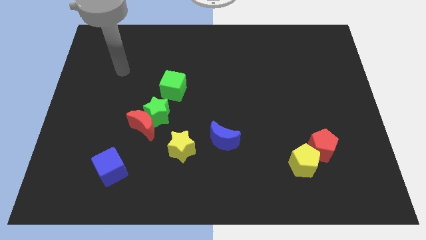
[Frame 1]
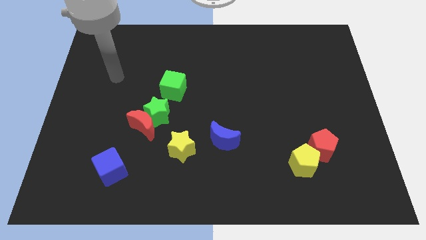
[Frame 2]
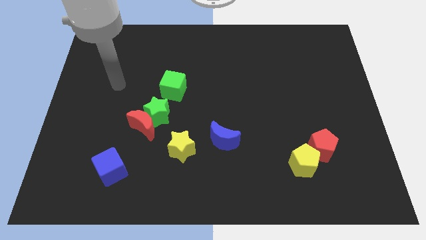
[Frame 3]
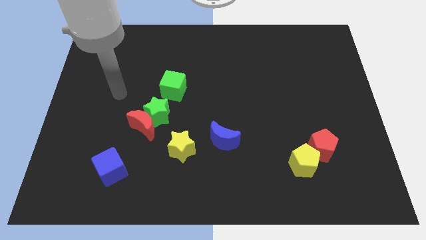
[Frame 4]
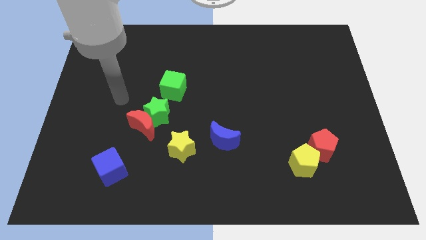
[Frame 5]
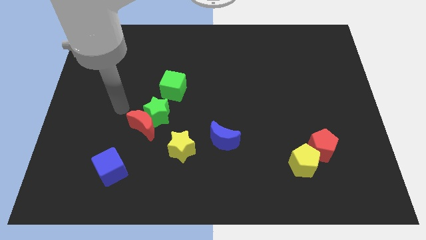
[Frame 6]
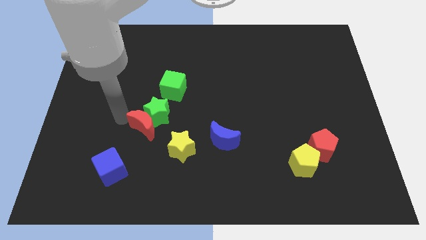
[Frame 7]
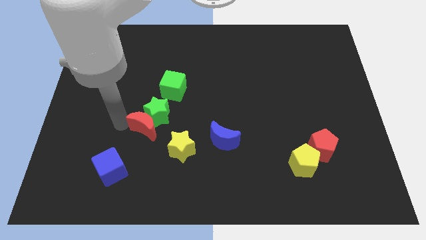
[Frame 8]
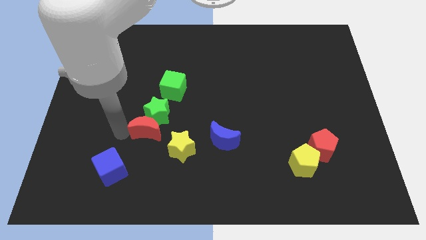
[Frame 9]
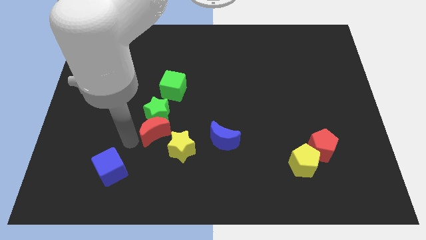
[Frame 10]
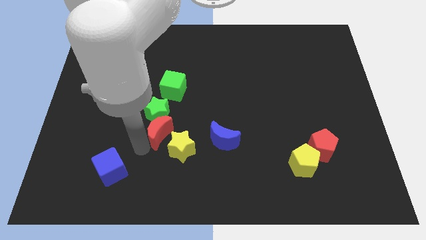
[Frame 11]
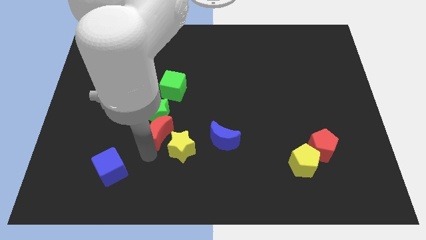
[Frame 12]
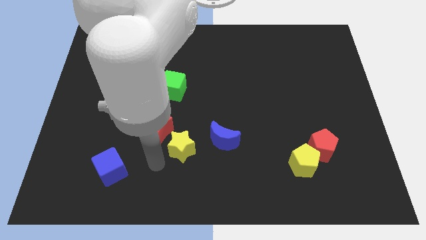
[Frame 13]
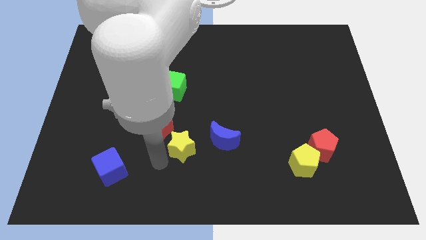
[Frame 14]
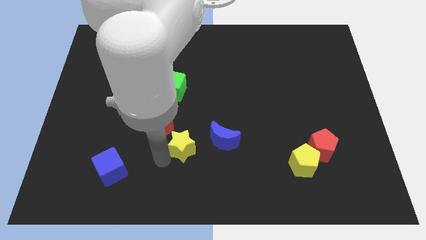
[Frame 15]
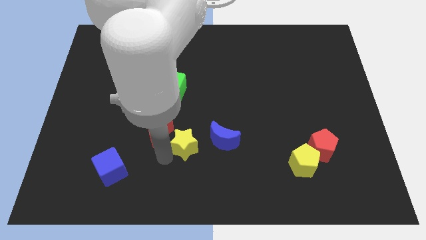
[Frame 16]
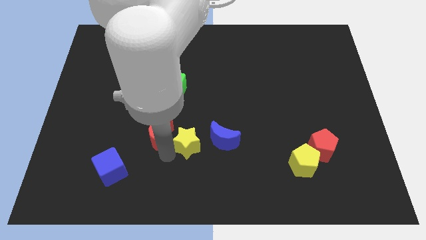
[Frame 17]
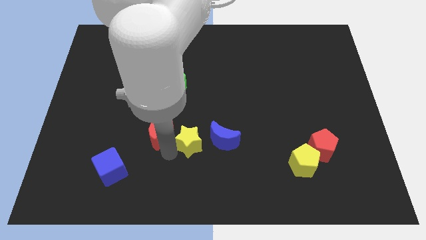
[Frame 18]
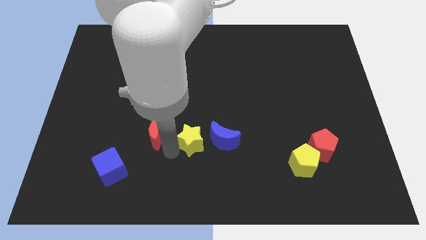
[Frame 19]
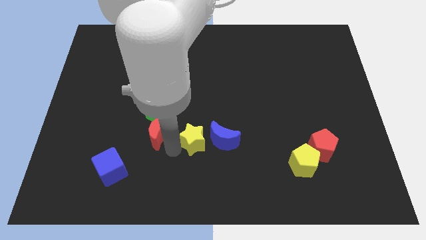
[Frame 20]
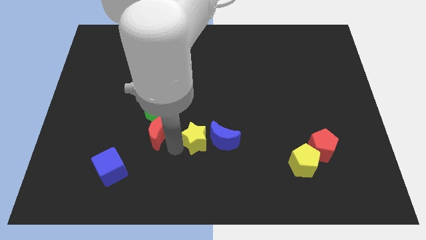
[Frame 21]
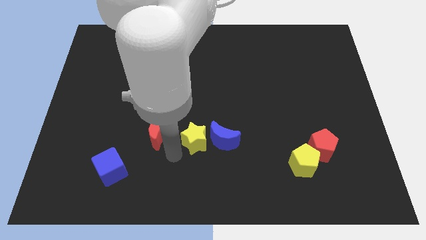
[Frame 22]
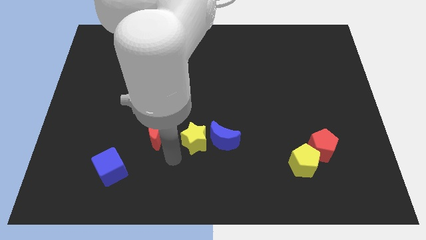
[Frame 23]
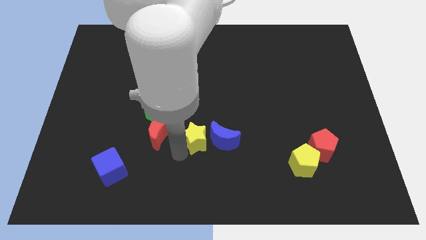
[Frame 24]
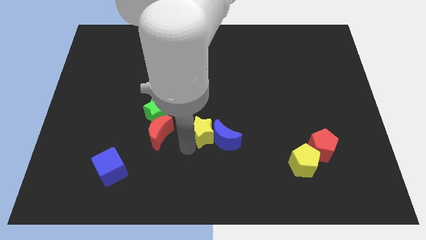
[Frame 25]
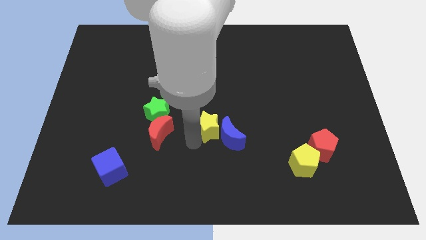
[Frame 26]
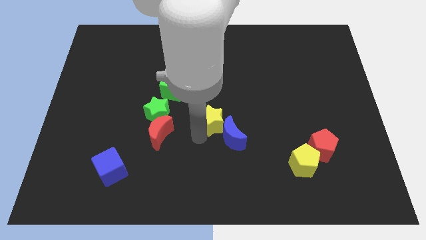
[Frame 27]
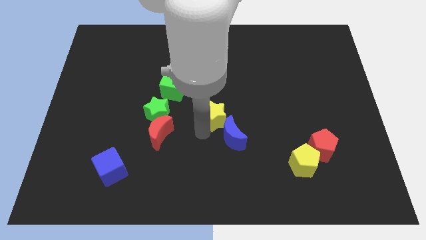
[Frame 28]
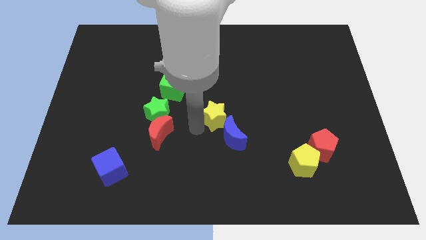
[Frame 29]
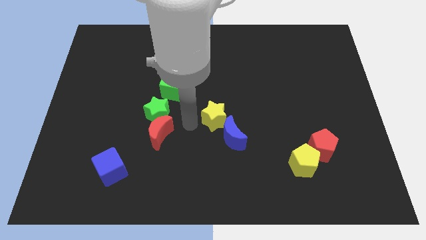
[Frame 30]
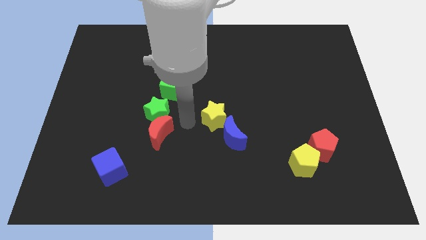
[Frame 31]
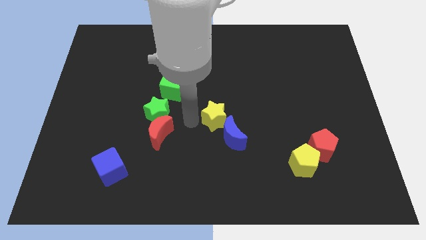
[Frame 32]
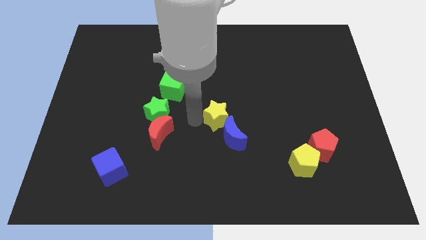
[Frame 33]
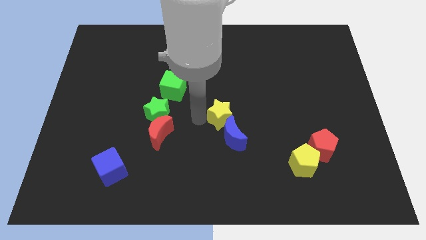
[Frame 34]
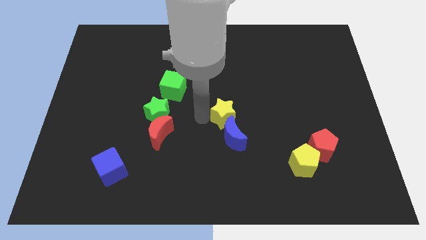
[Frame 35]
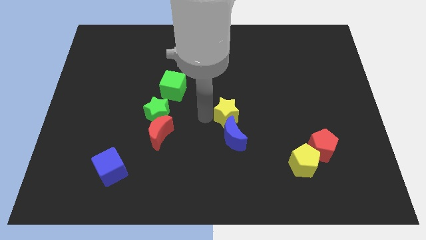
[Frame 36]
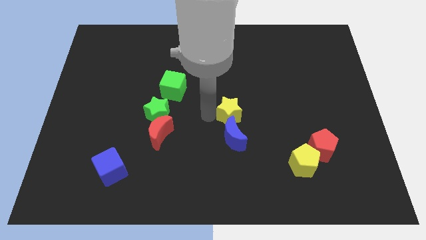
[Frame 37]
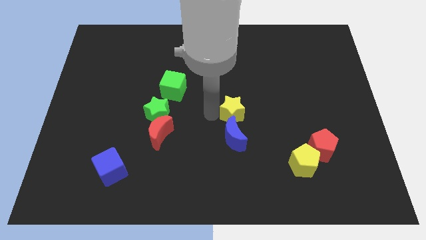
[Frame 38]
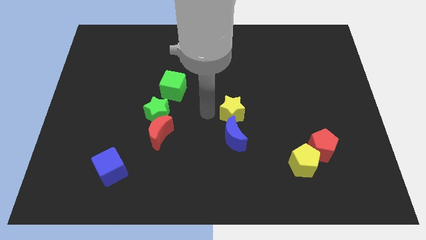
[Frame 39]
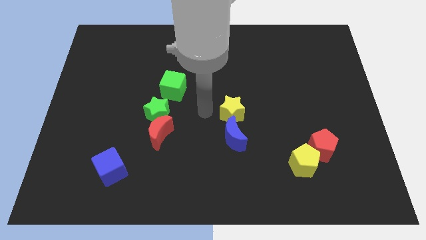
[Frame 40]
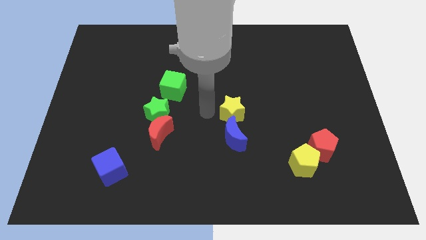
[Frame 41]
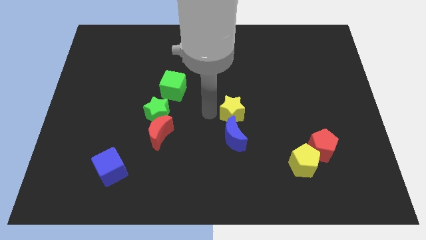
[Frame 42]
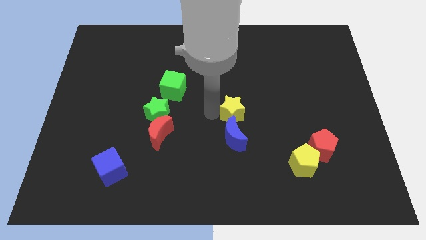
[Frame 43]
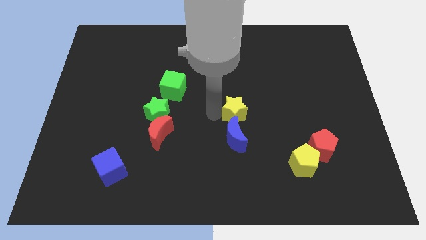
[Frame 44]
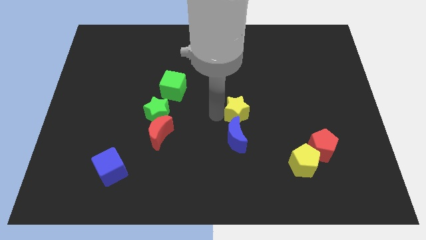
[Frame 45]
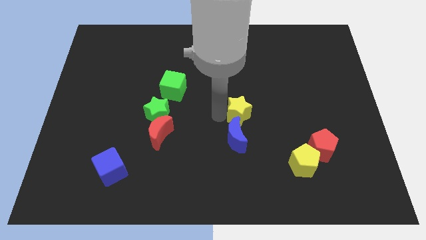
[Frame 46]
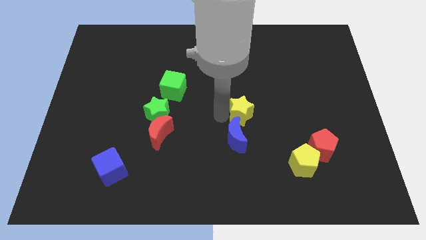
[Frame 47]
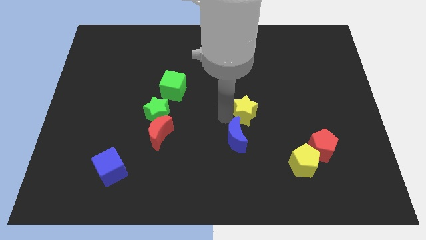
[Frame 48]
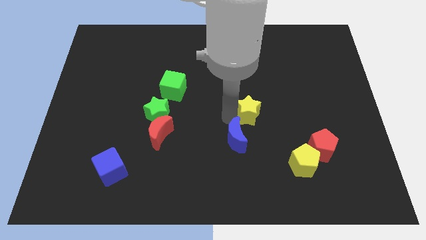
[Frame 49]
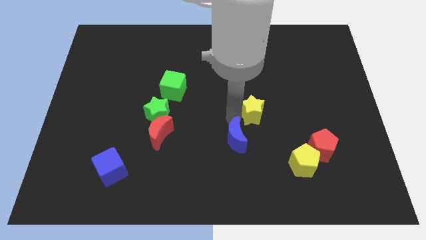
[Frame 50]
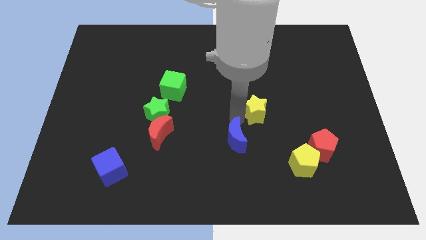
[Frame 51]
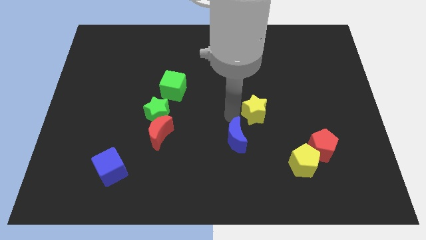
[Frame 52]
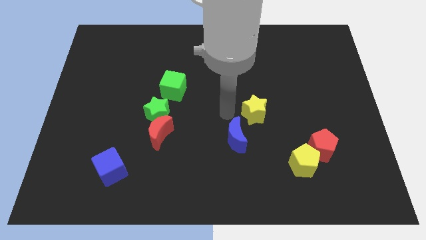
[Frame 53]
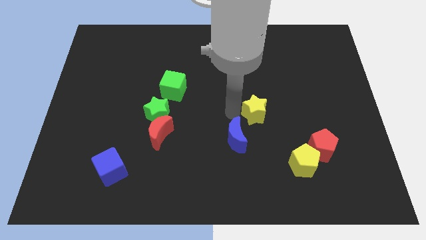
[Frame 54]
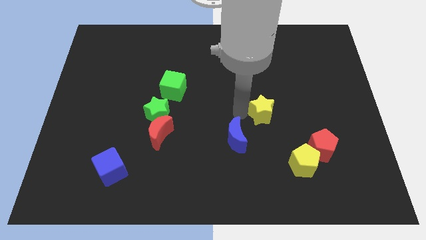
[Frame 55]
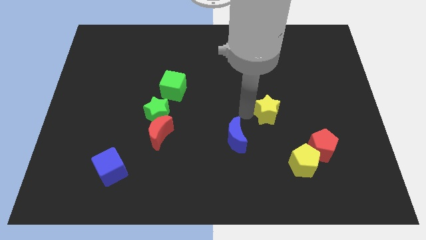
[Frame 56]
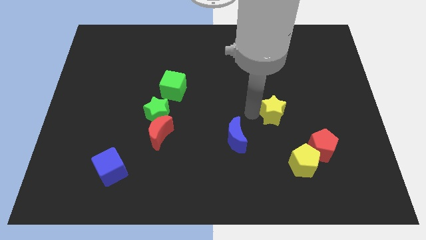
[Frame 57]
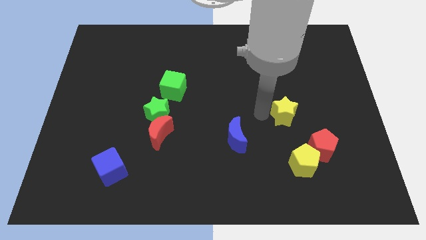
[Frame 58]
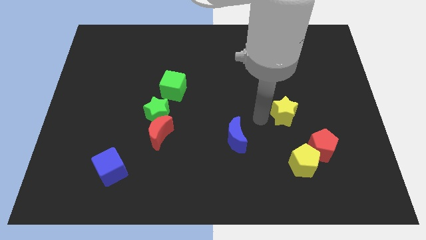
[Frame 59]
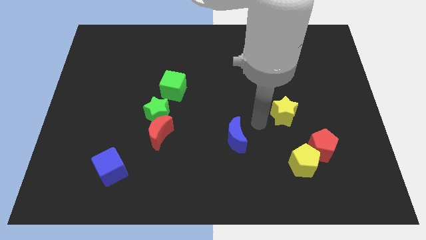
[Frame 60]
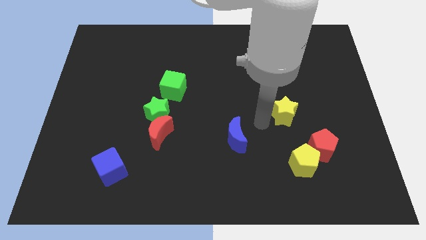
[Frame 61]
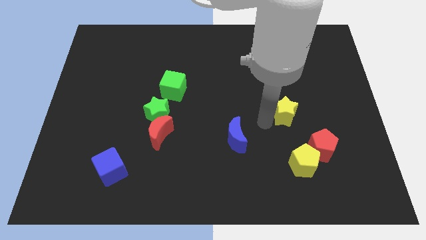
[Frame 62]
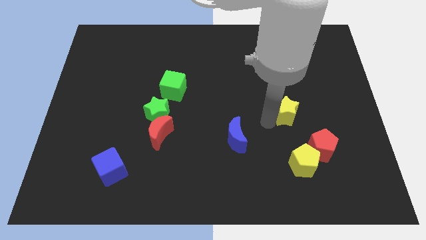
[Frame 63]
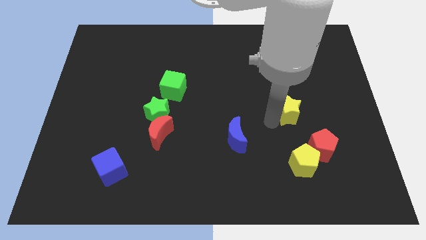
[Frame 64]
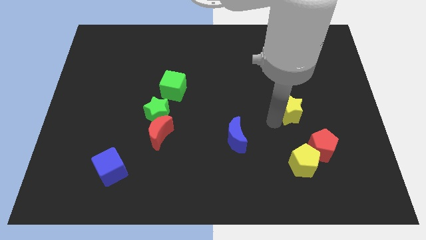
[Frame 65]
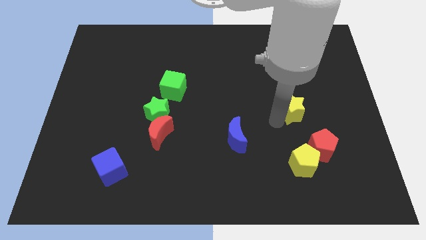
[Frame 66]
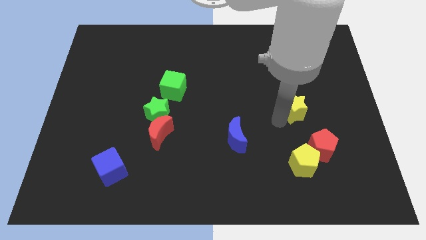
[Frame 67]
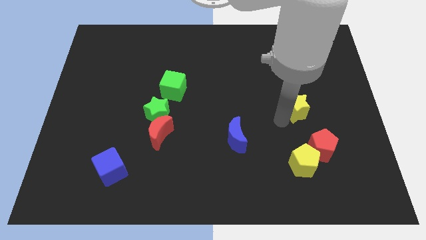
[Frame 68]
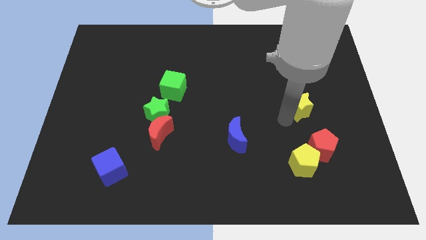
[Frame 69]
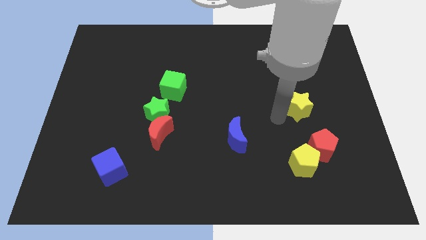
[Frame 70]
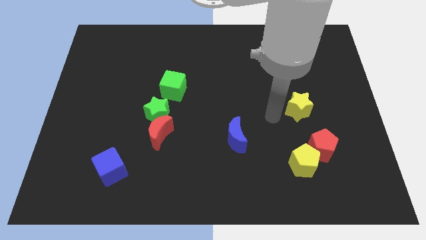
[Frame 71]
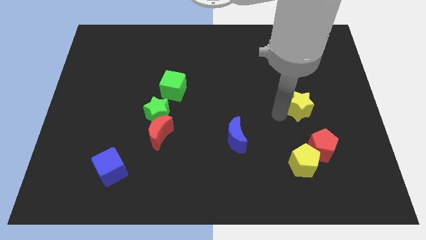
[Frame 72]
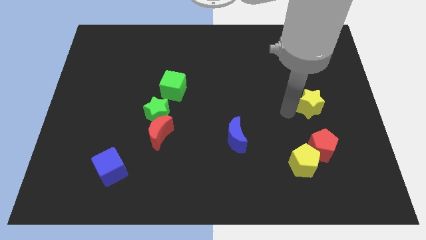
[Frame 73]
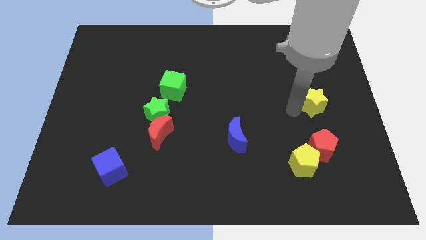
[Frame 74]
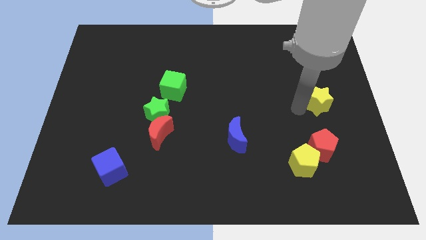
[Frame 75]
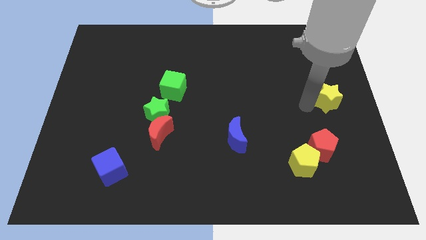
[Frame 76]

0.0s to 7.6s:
put the yellow star to the right side
